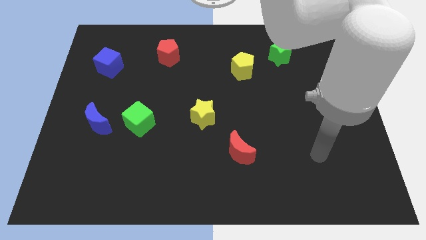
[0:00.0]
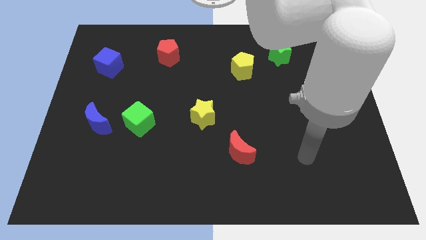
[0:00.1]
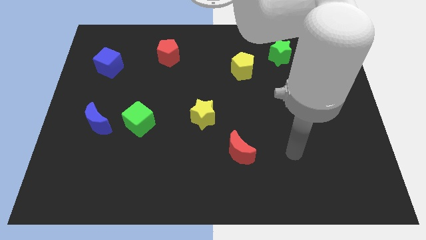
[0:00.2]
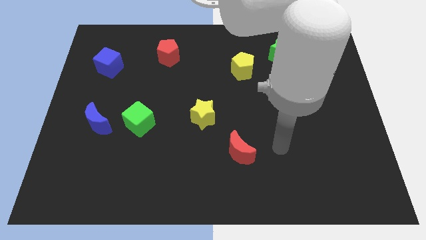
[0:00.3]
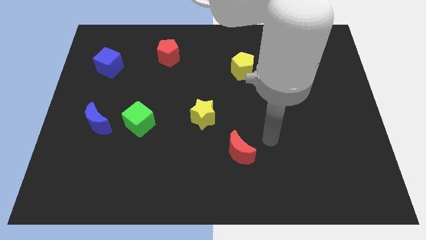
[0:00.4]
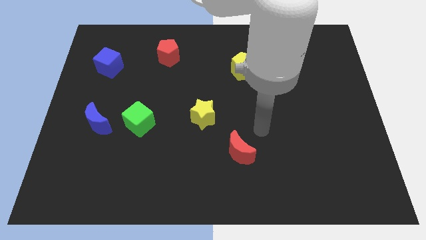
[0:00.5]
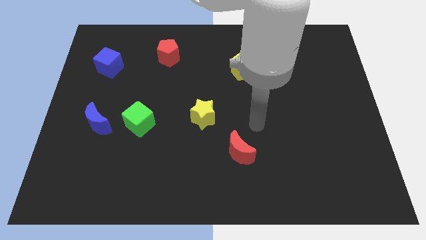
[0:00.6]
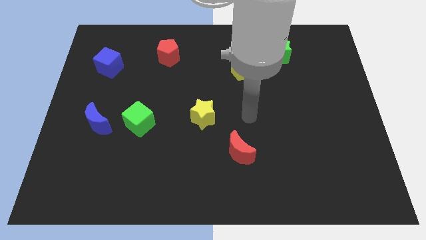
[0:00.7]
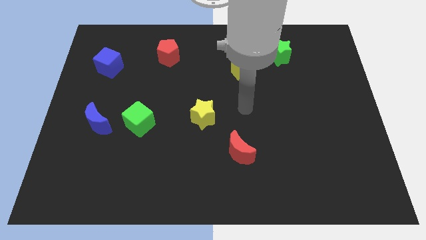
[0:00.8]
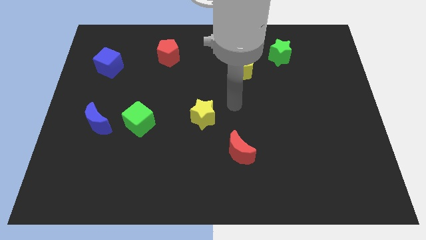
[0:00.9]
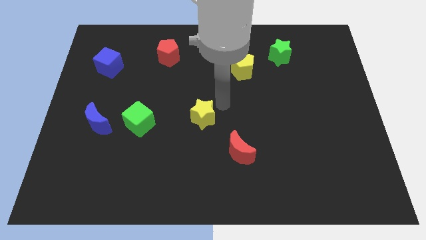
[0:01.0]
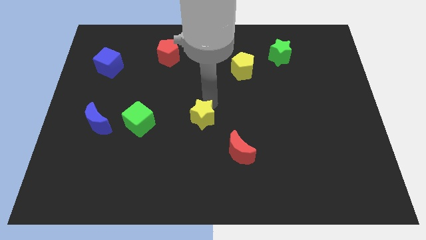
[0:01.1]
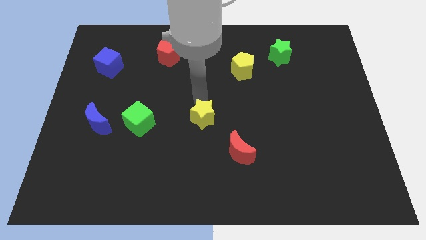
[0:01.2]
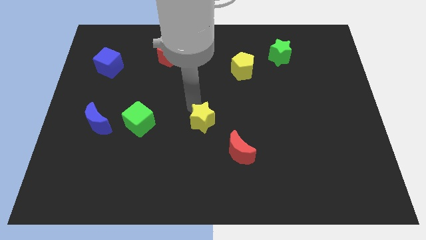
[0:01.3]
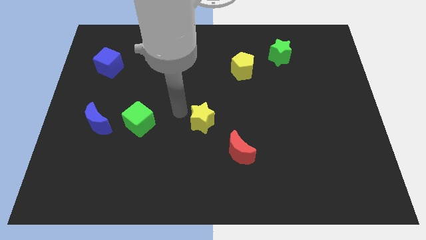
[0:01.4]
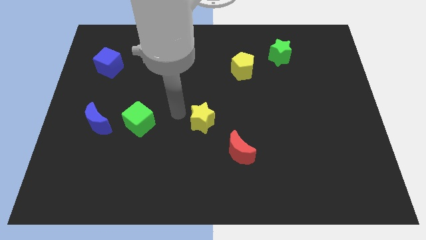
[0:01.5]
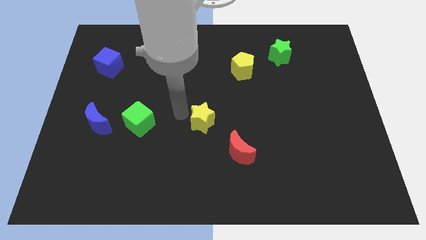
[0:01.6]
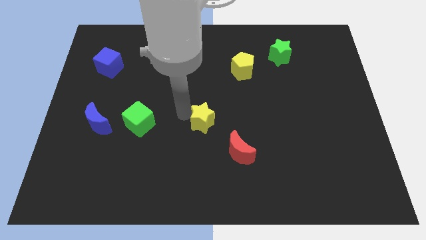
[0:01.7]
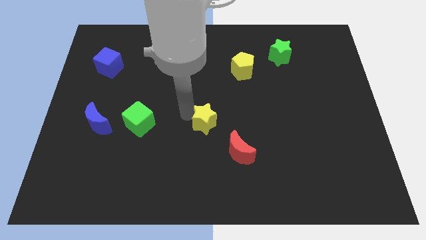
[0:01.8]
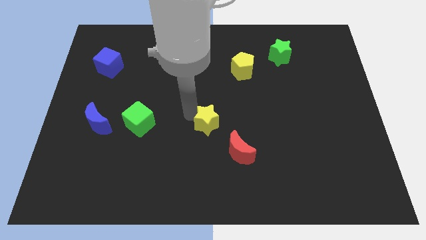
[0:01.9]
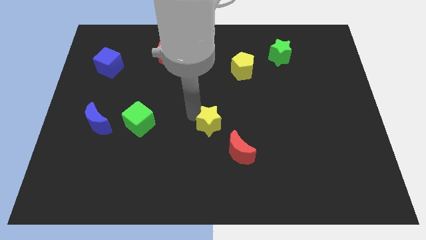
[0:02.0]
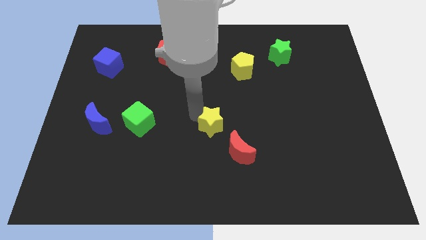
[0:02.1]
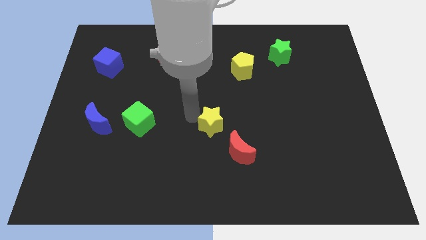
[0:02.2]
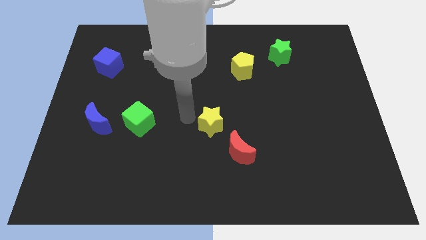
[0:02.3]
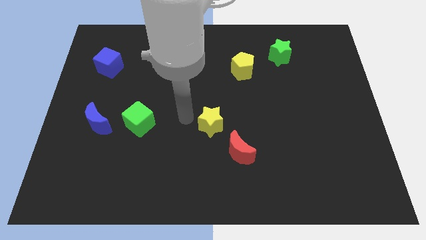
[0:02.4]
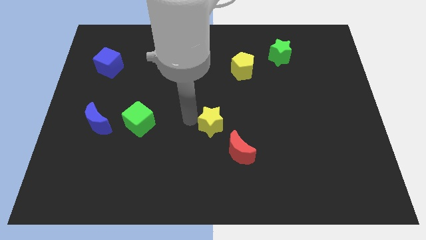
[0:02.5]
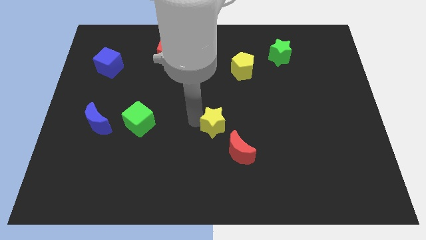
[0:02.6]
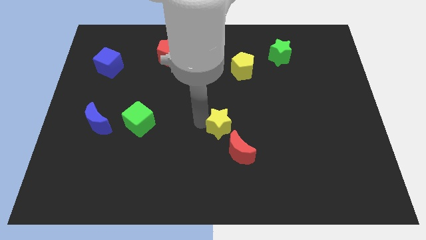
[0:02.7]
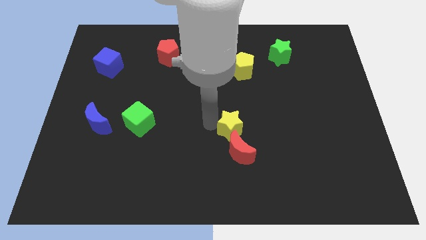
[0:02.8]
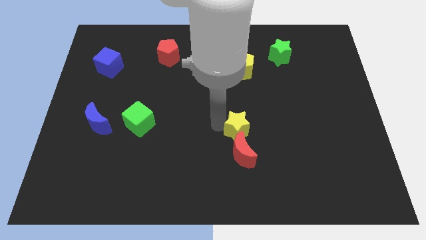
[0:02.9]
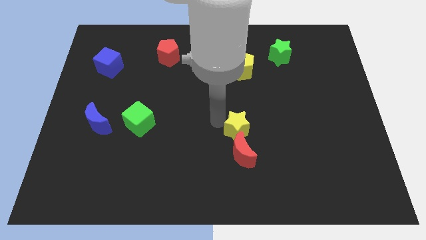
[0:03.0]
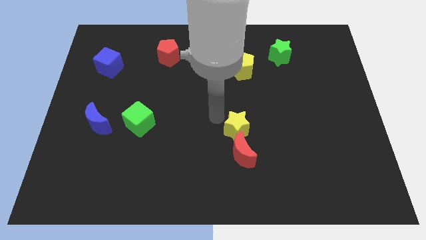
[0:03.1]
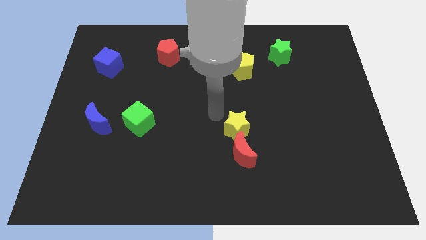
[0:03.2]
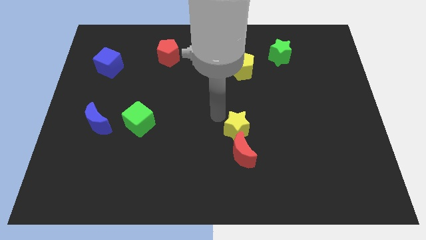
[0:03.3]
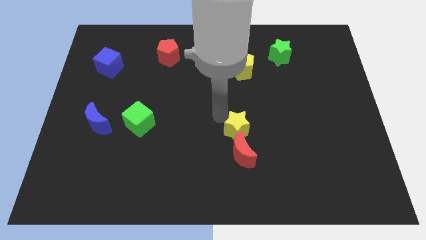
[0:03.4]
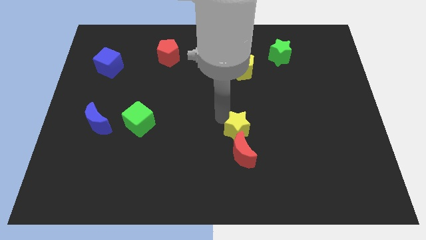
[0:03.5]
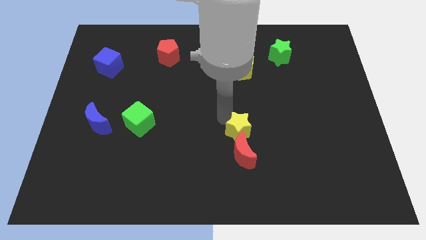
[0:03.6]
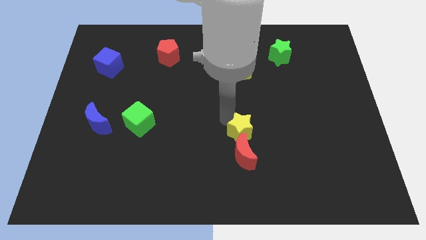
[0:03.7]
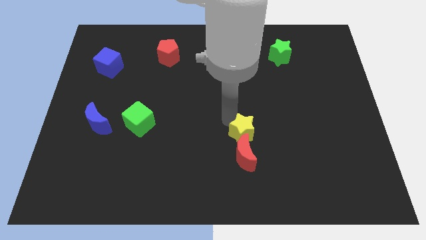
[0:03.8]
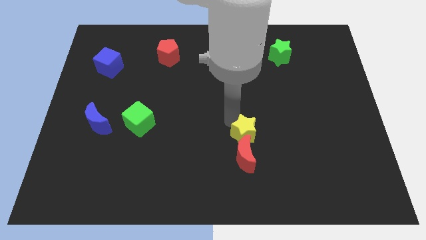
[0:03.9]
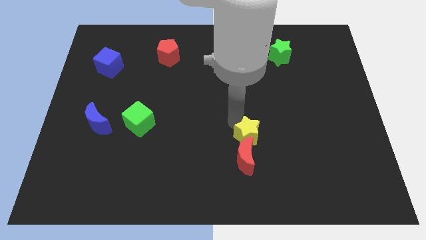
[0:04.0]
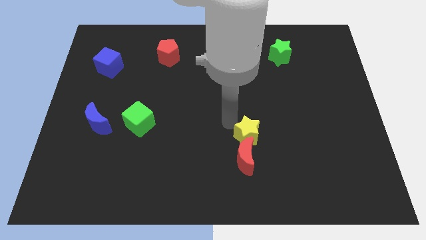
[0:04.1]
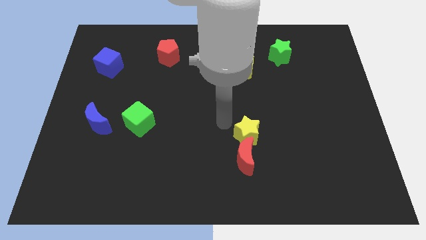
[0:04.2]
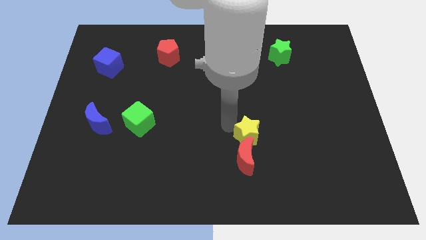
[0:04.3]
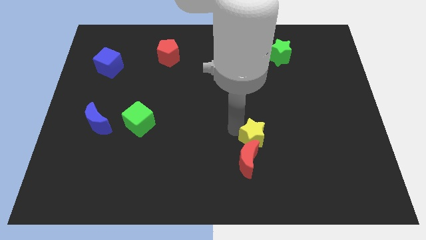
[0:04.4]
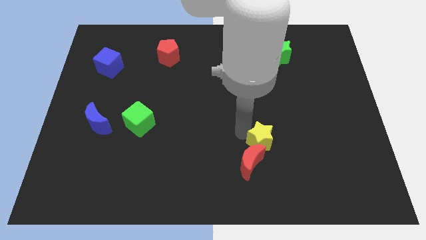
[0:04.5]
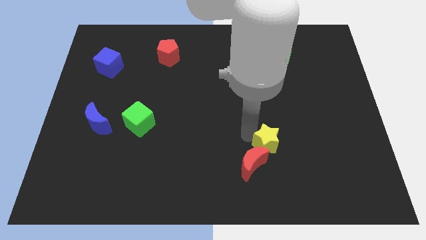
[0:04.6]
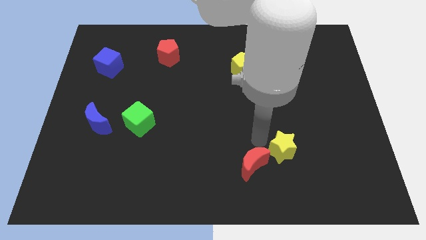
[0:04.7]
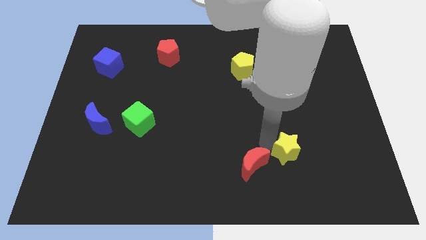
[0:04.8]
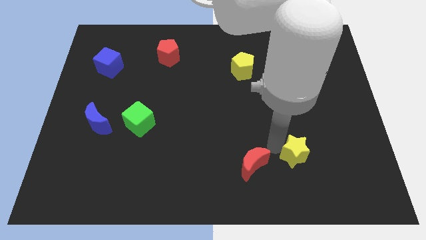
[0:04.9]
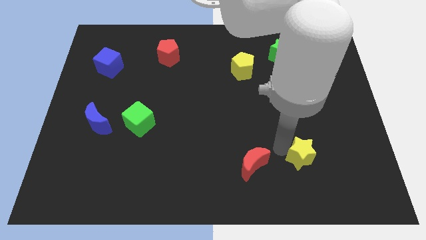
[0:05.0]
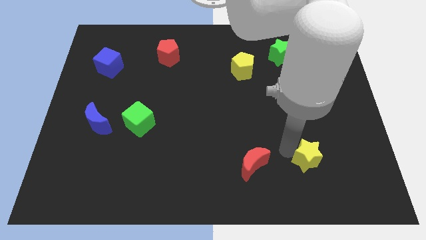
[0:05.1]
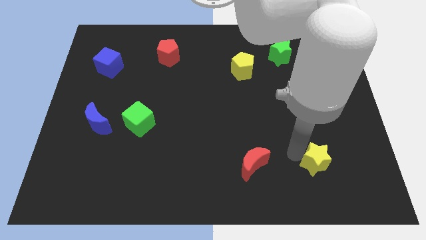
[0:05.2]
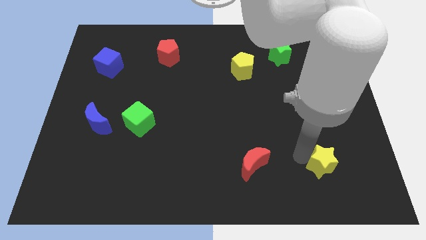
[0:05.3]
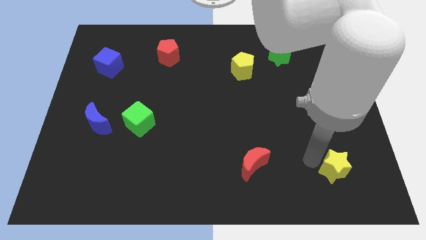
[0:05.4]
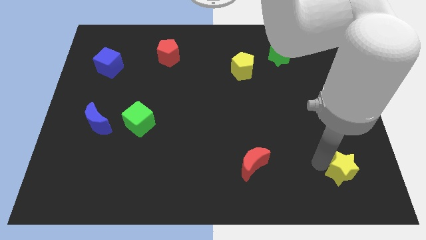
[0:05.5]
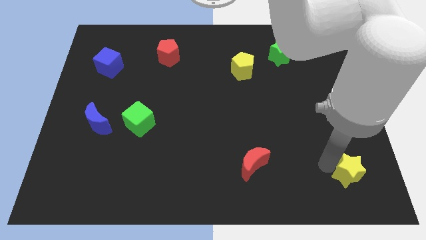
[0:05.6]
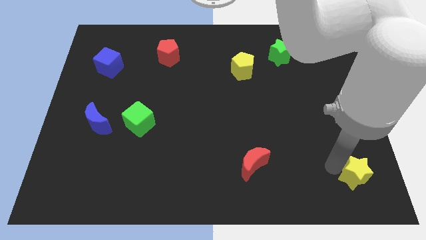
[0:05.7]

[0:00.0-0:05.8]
move the yellow star to the bottom right of the board
